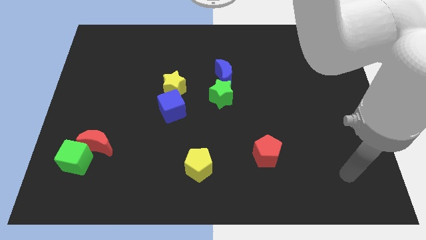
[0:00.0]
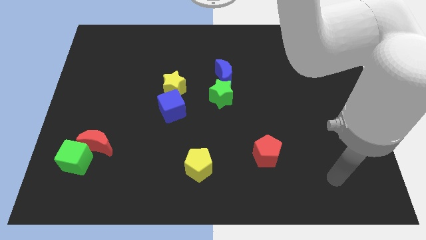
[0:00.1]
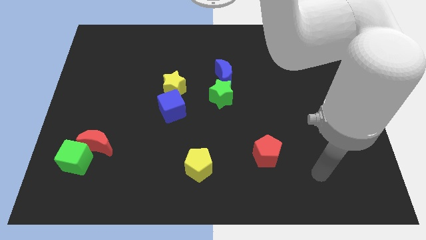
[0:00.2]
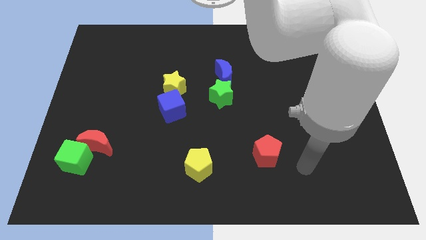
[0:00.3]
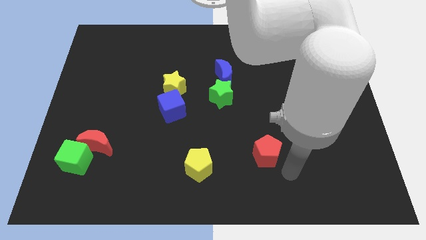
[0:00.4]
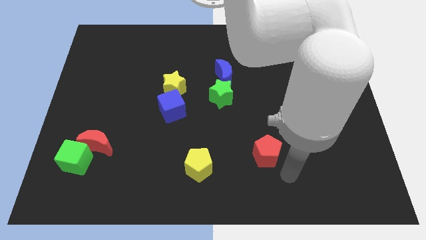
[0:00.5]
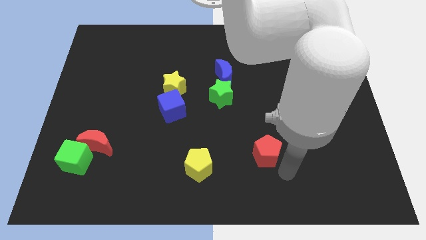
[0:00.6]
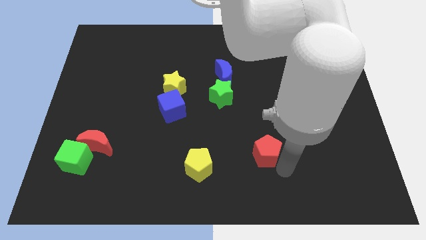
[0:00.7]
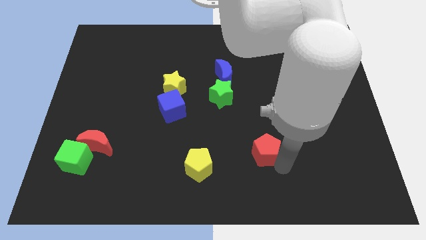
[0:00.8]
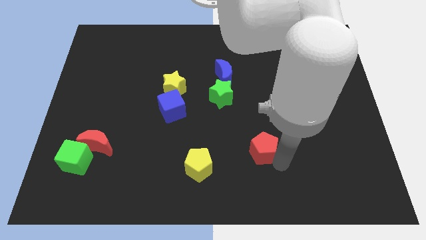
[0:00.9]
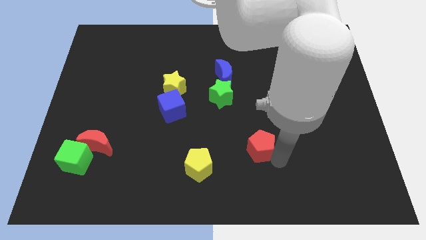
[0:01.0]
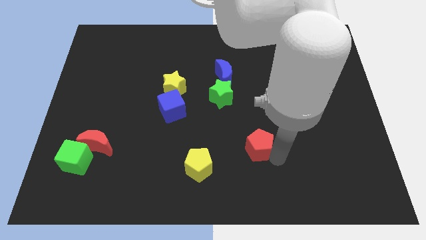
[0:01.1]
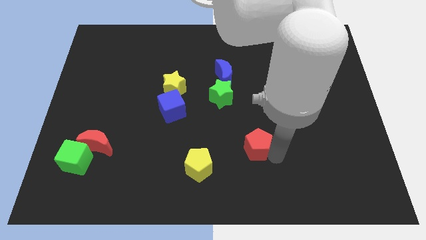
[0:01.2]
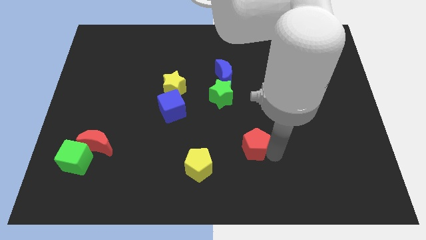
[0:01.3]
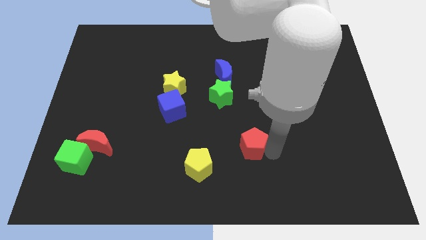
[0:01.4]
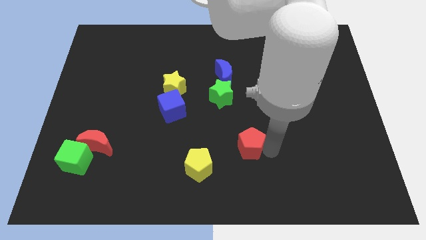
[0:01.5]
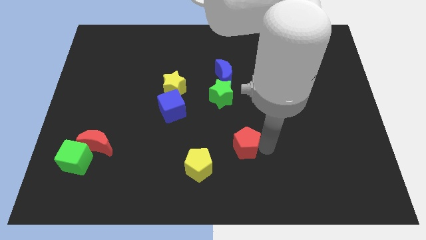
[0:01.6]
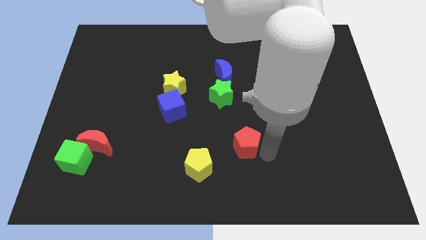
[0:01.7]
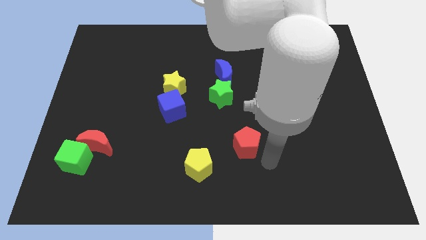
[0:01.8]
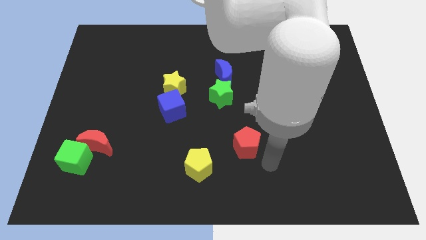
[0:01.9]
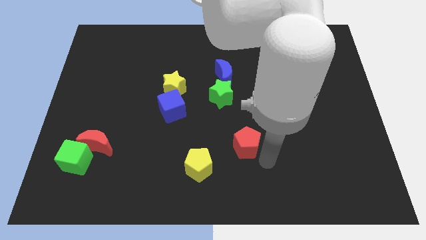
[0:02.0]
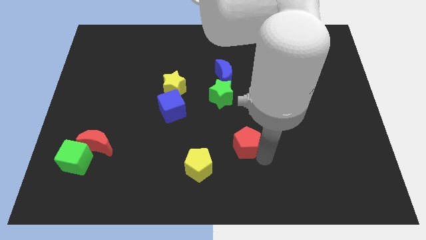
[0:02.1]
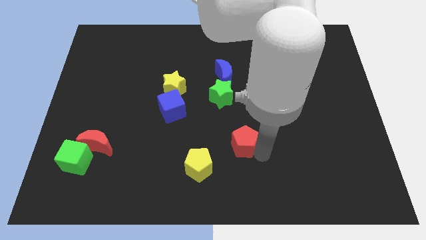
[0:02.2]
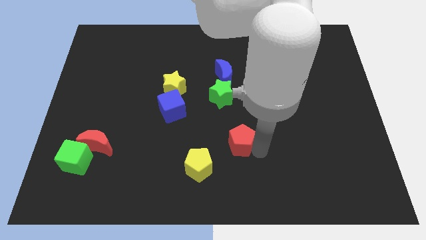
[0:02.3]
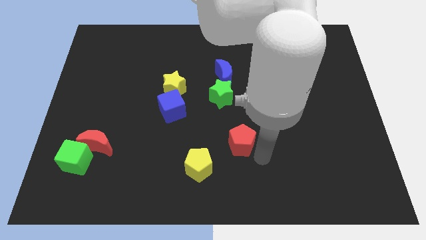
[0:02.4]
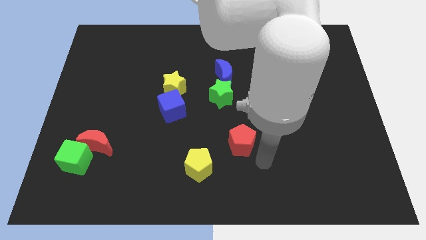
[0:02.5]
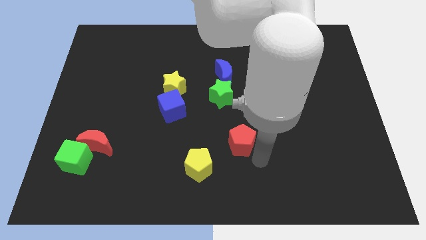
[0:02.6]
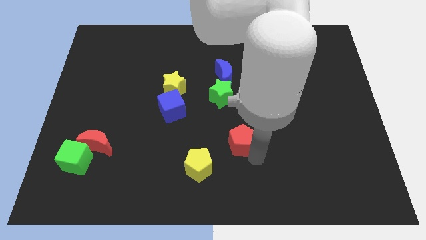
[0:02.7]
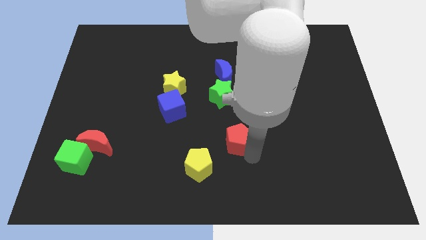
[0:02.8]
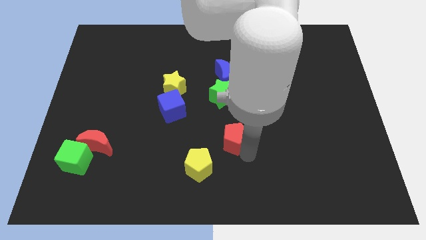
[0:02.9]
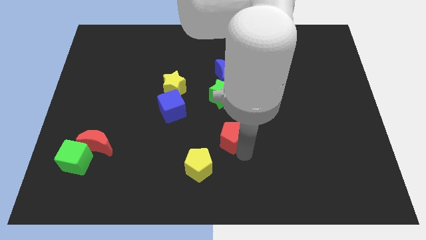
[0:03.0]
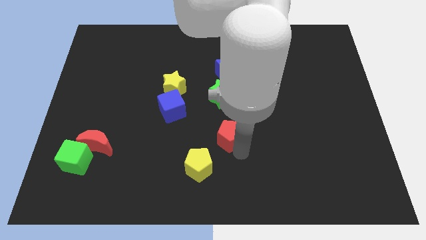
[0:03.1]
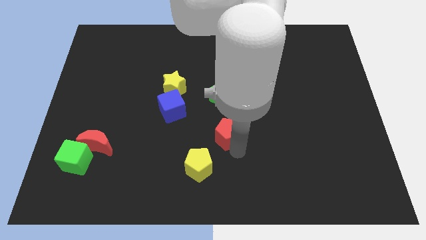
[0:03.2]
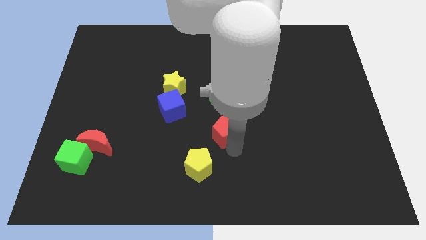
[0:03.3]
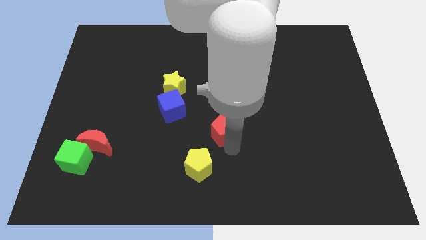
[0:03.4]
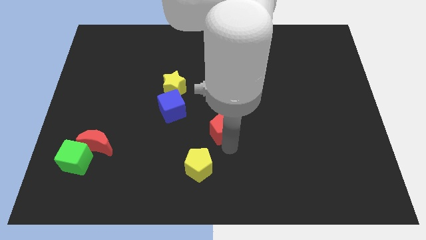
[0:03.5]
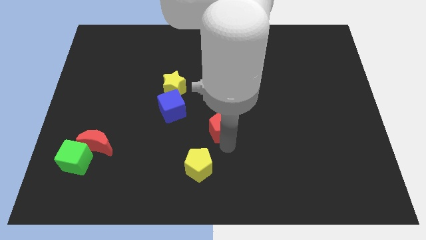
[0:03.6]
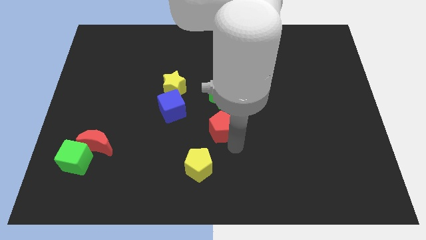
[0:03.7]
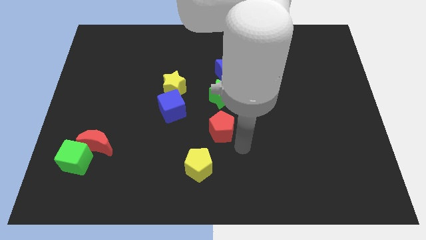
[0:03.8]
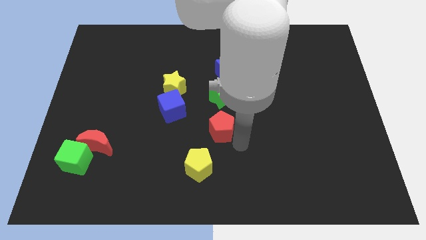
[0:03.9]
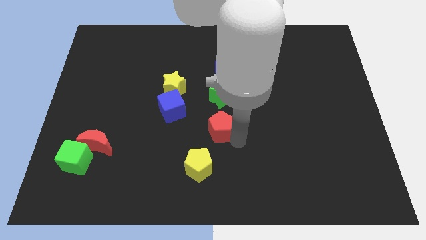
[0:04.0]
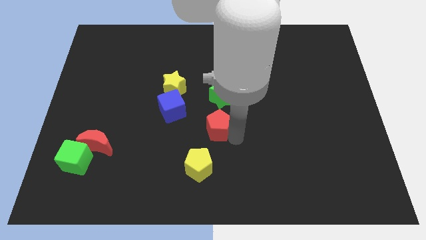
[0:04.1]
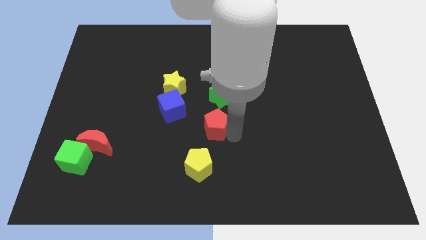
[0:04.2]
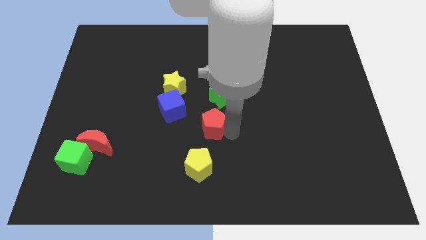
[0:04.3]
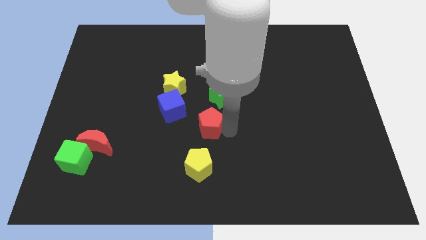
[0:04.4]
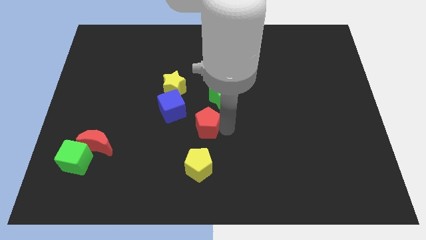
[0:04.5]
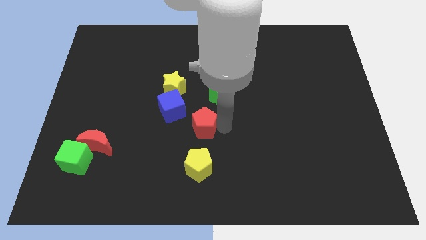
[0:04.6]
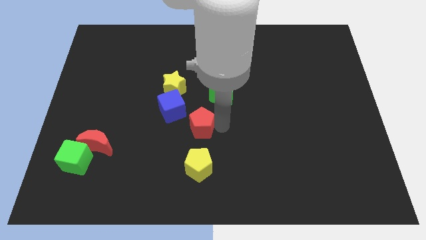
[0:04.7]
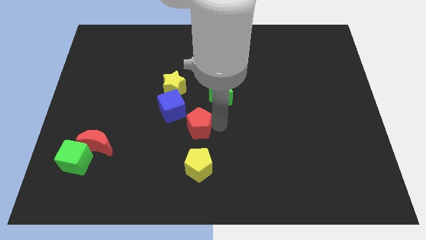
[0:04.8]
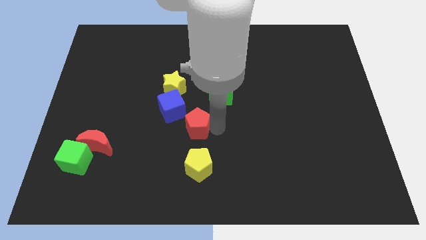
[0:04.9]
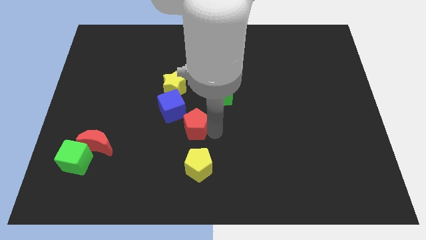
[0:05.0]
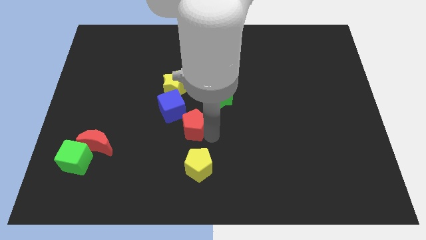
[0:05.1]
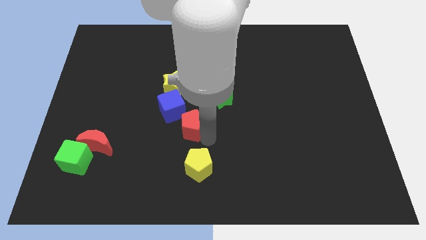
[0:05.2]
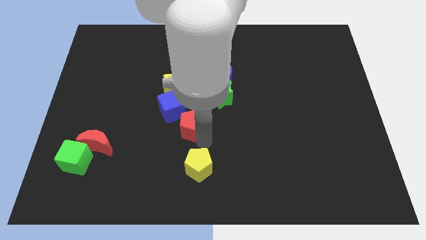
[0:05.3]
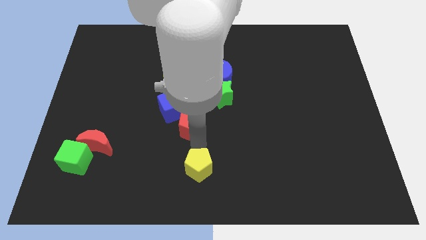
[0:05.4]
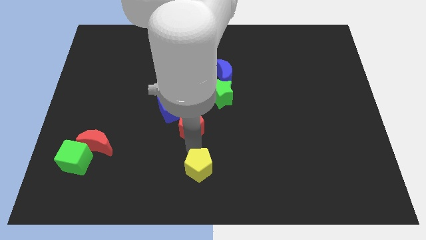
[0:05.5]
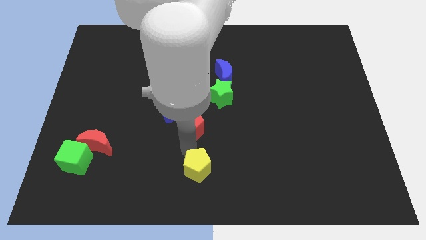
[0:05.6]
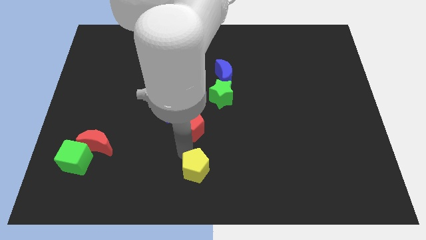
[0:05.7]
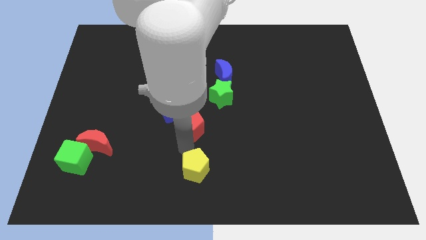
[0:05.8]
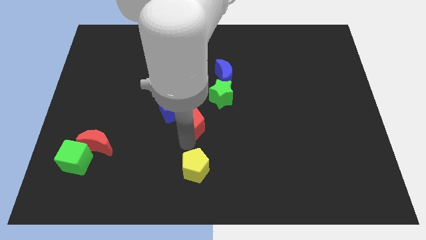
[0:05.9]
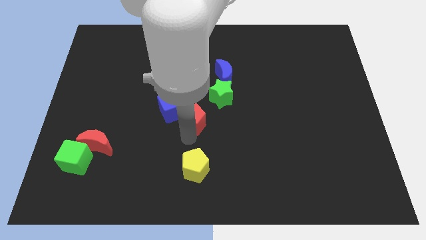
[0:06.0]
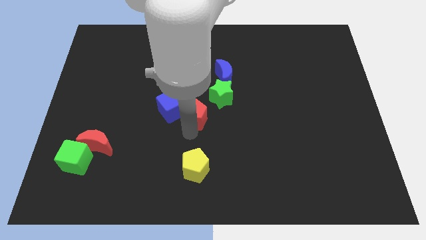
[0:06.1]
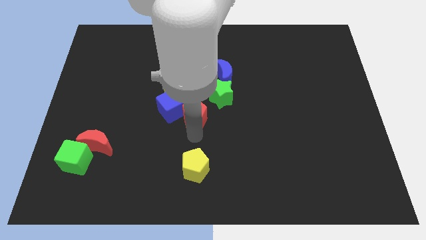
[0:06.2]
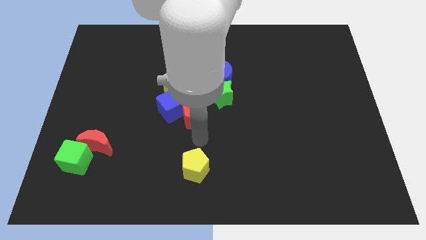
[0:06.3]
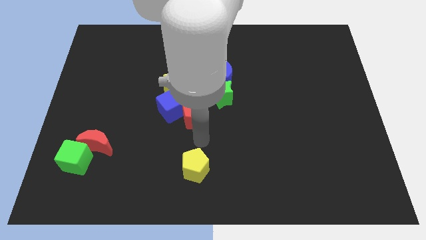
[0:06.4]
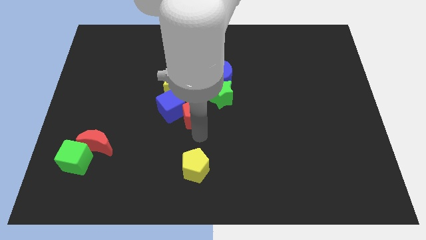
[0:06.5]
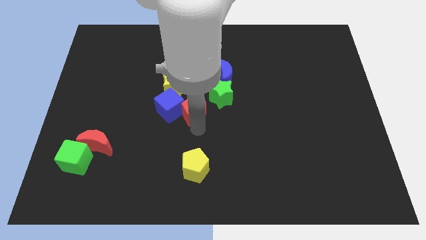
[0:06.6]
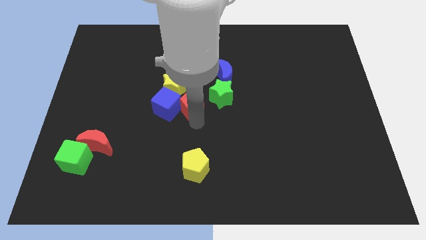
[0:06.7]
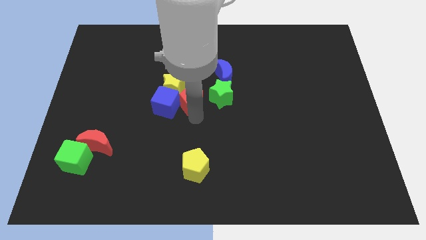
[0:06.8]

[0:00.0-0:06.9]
push the red pentagon close to the yellow star
